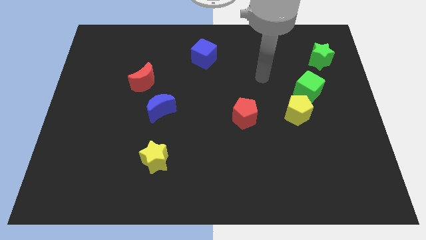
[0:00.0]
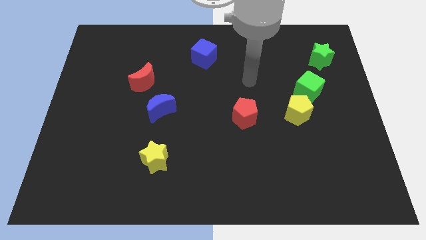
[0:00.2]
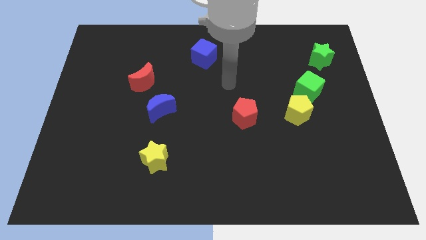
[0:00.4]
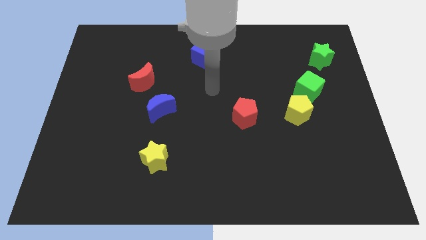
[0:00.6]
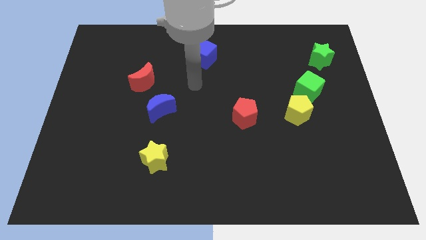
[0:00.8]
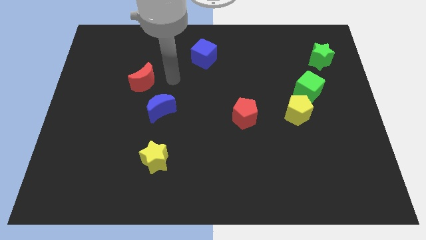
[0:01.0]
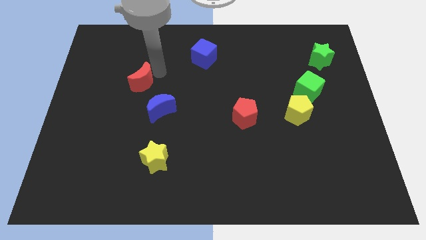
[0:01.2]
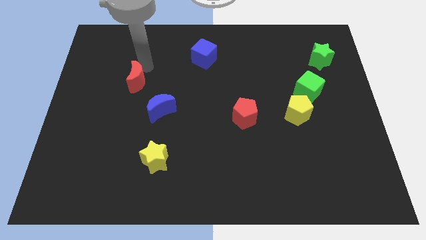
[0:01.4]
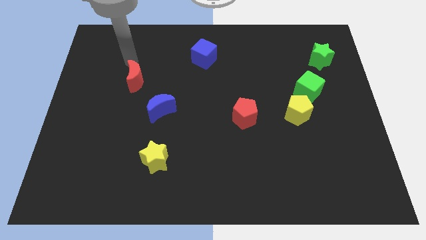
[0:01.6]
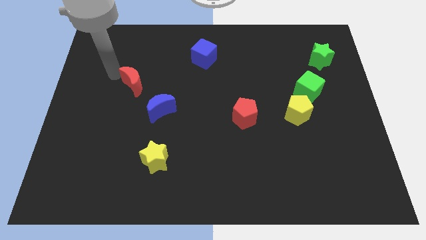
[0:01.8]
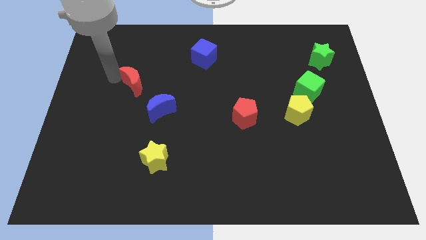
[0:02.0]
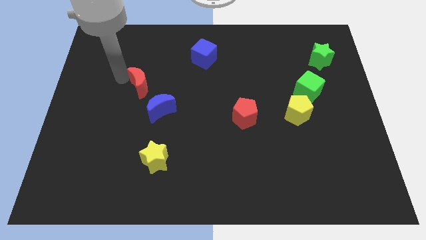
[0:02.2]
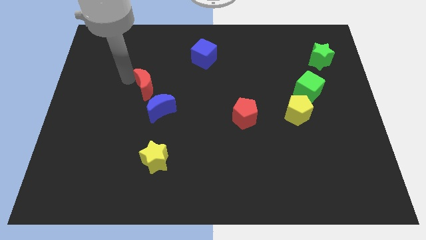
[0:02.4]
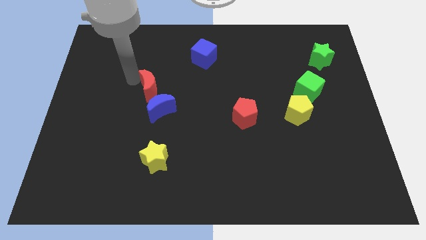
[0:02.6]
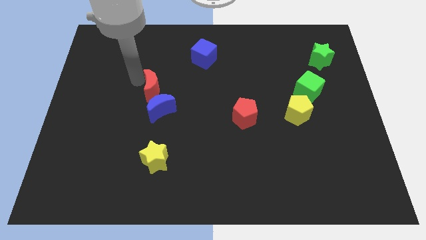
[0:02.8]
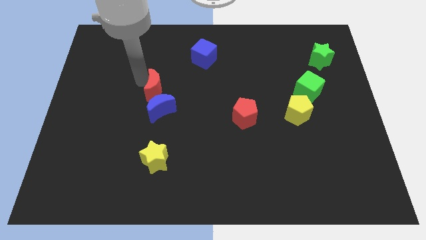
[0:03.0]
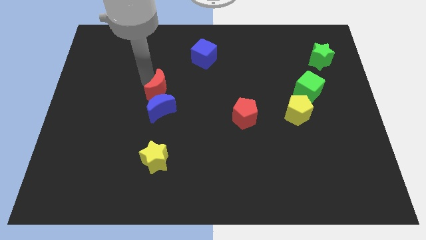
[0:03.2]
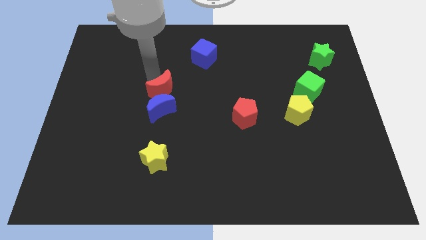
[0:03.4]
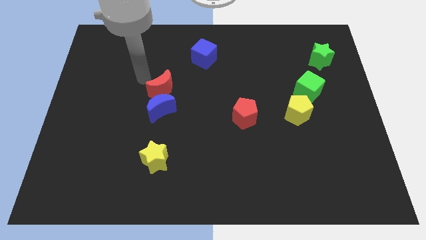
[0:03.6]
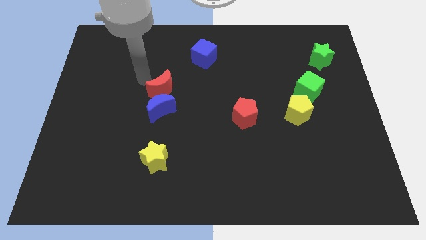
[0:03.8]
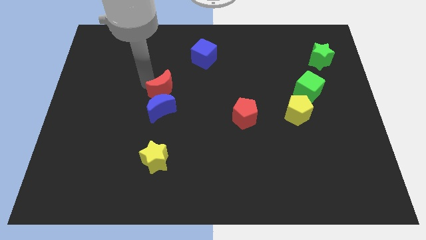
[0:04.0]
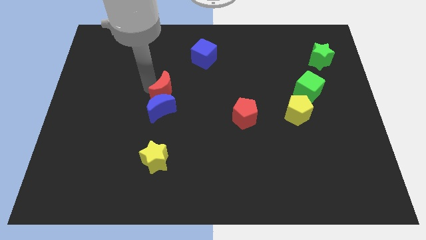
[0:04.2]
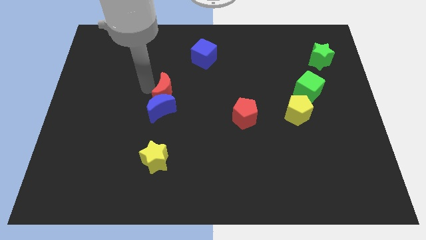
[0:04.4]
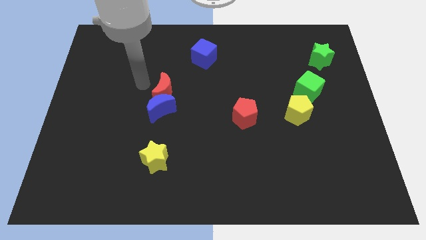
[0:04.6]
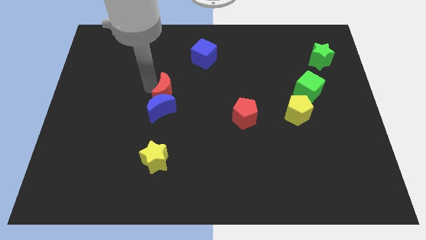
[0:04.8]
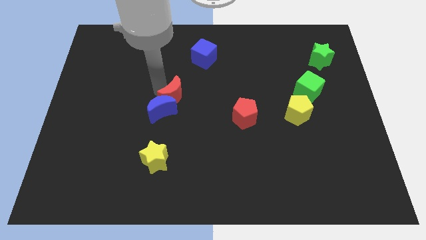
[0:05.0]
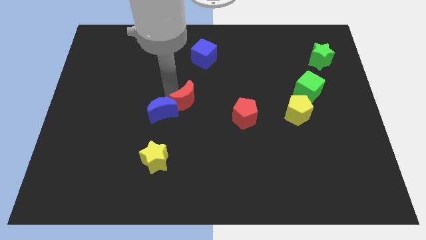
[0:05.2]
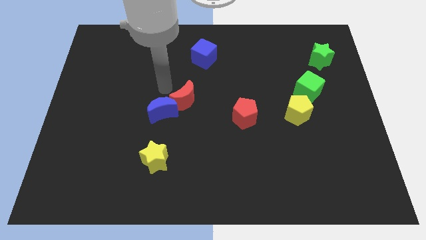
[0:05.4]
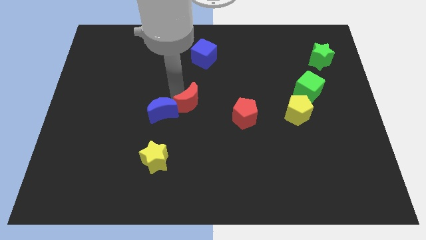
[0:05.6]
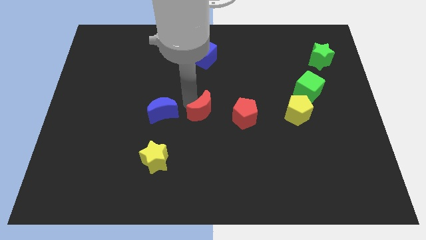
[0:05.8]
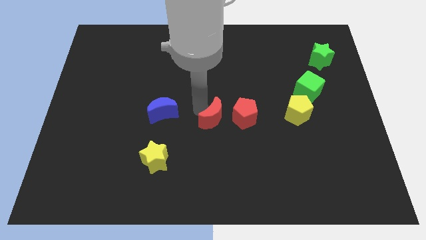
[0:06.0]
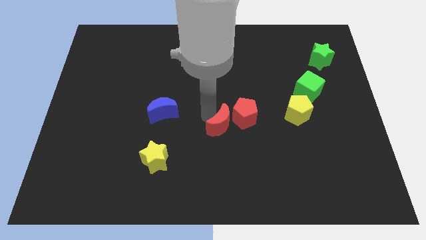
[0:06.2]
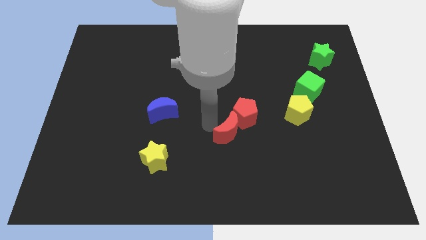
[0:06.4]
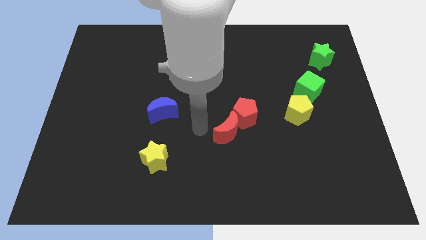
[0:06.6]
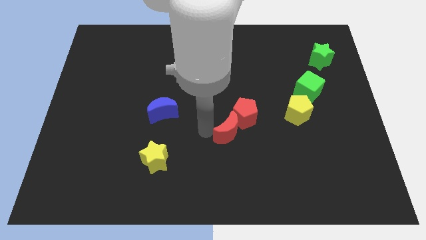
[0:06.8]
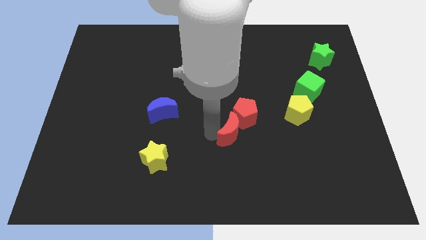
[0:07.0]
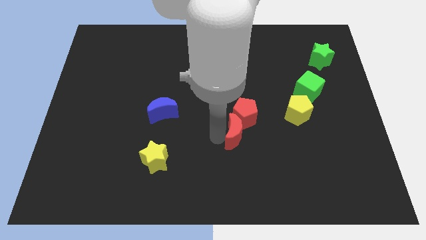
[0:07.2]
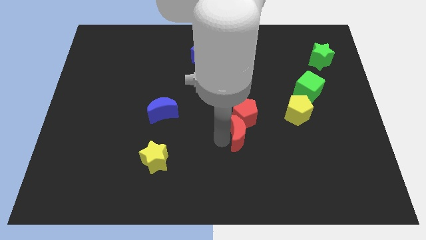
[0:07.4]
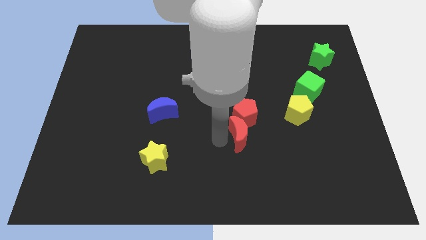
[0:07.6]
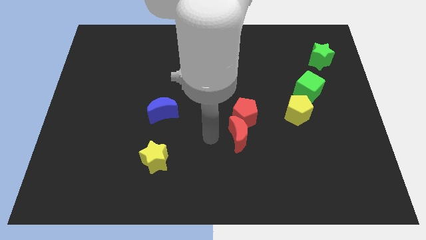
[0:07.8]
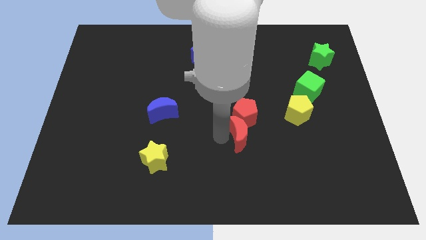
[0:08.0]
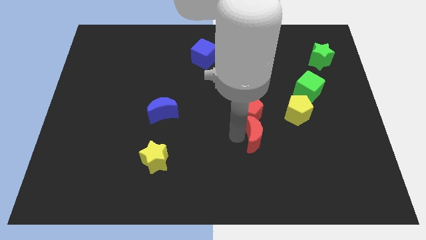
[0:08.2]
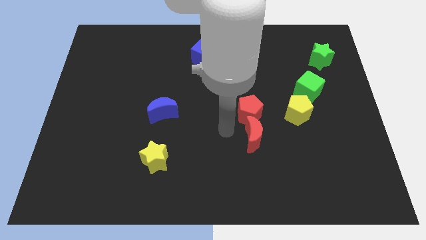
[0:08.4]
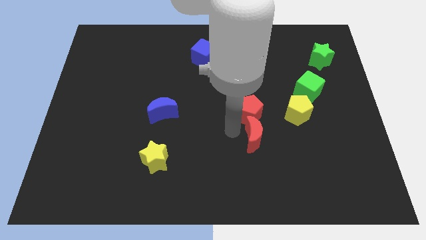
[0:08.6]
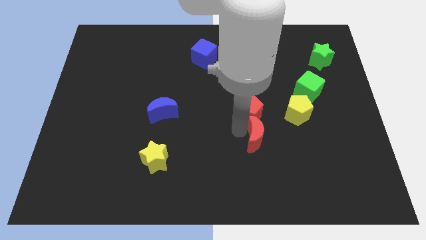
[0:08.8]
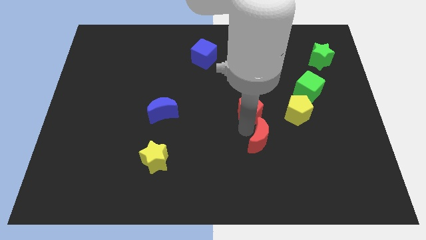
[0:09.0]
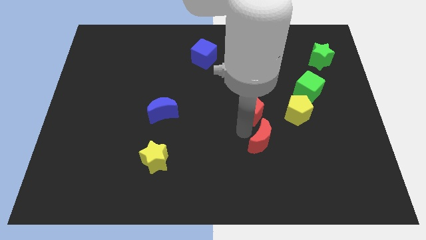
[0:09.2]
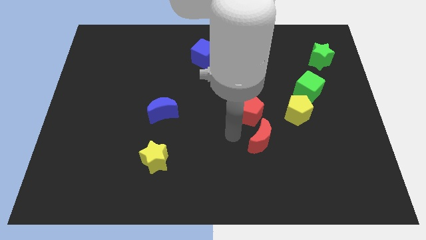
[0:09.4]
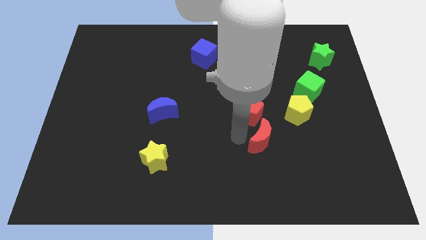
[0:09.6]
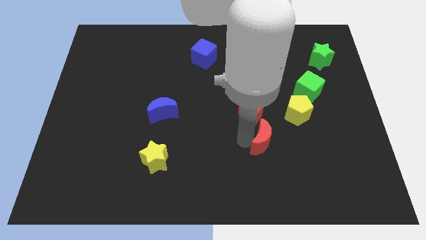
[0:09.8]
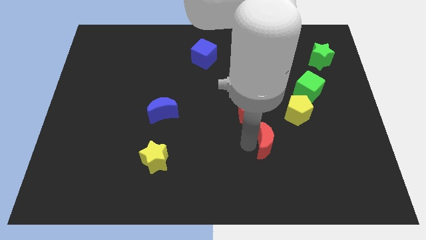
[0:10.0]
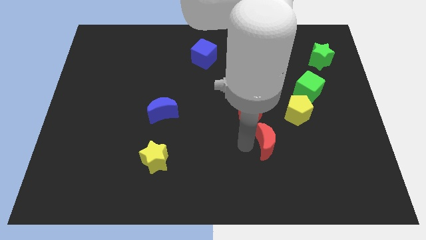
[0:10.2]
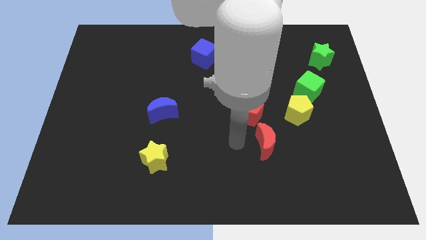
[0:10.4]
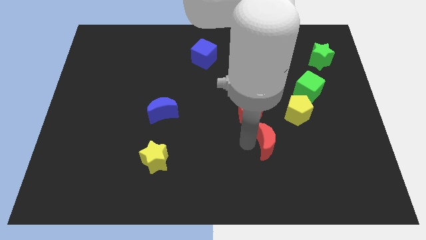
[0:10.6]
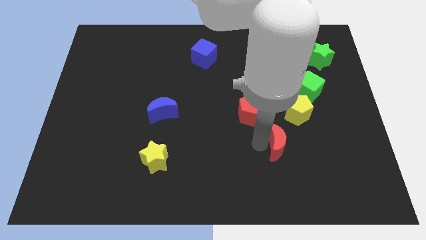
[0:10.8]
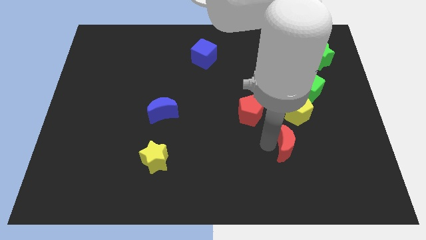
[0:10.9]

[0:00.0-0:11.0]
put the red moon to the bottom side of the yellow pentagon

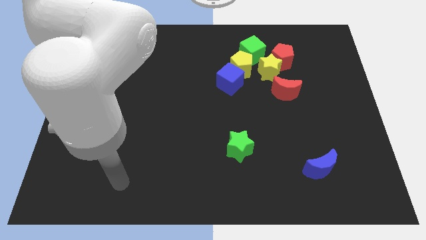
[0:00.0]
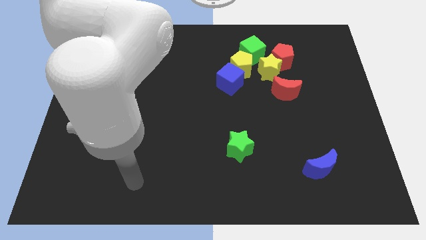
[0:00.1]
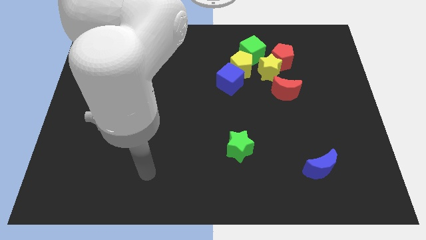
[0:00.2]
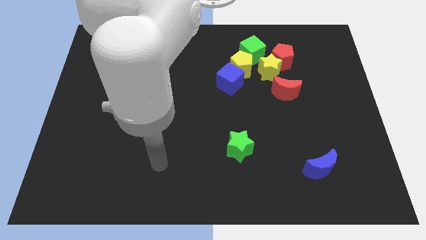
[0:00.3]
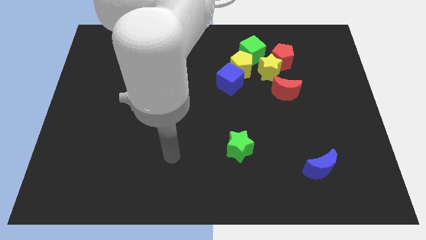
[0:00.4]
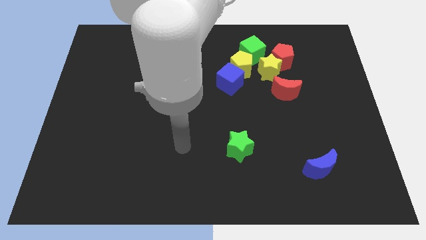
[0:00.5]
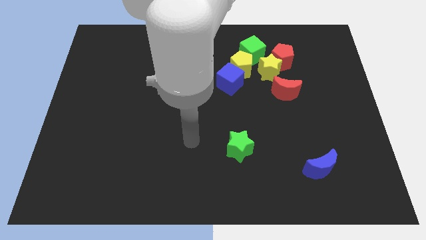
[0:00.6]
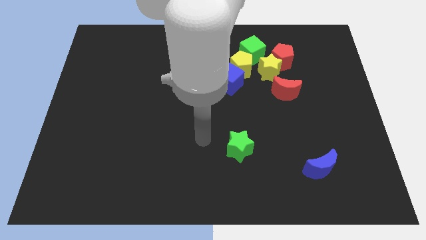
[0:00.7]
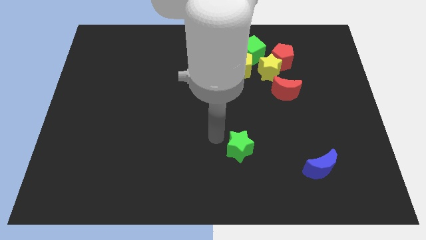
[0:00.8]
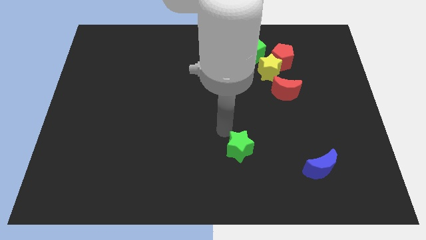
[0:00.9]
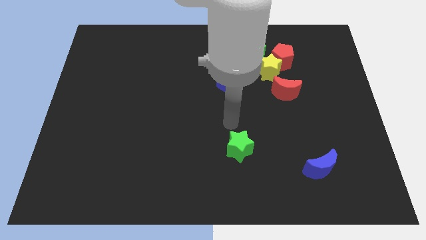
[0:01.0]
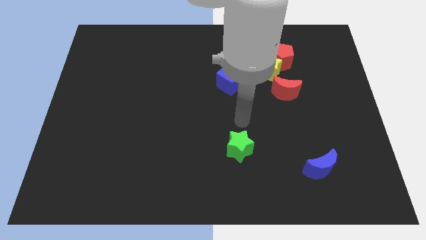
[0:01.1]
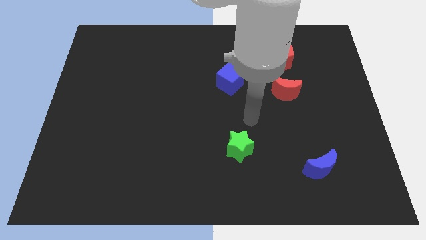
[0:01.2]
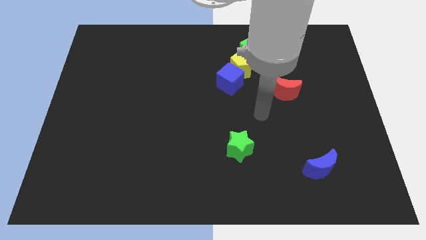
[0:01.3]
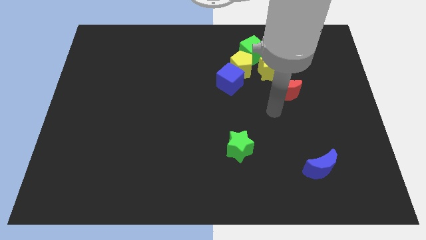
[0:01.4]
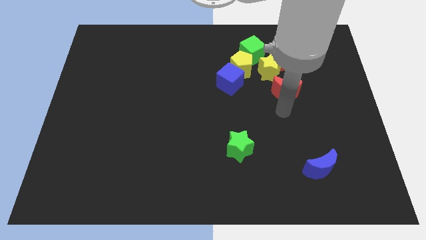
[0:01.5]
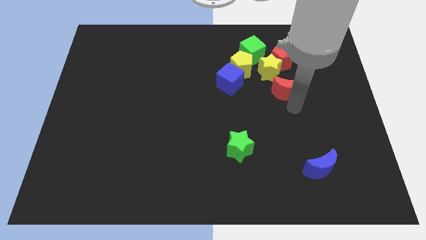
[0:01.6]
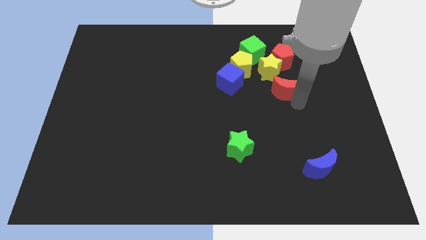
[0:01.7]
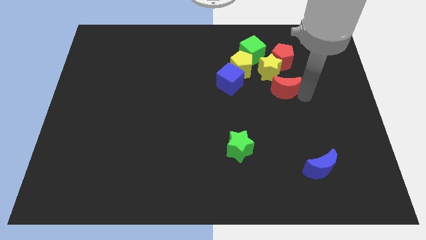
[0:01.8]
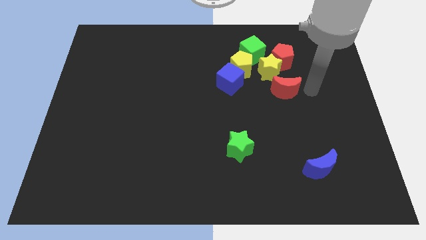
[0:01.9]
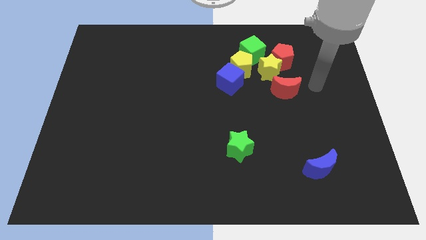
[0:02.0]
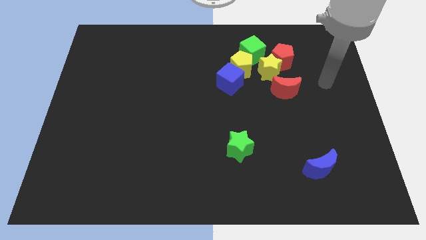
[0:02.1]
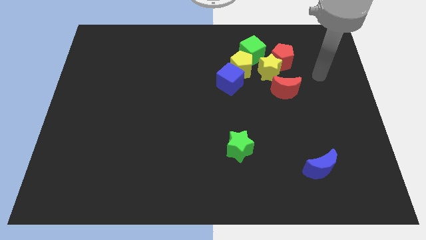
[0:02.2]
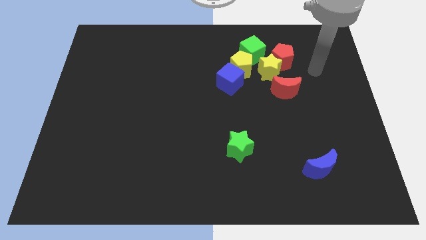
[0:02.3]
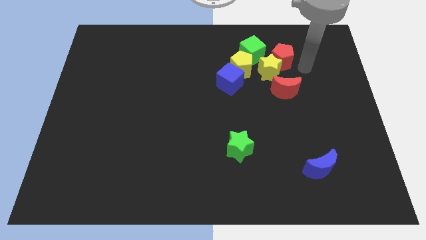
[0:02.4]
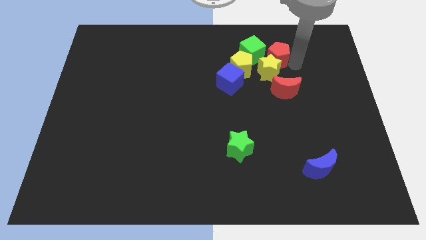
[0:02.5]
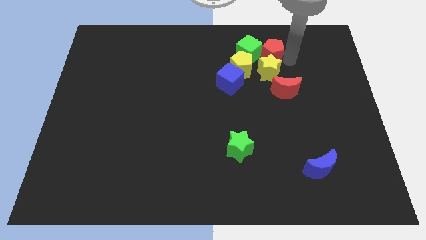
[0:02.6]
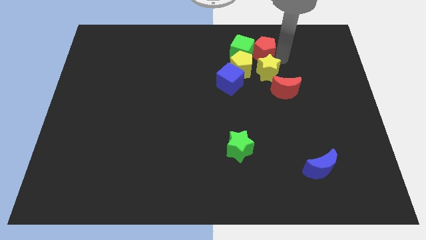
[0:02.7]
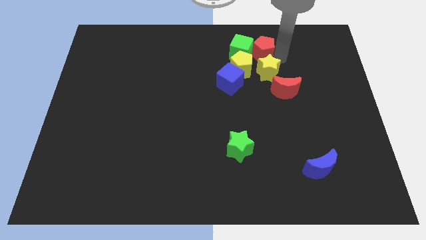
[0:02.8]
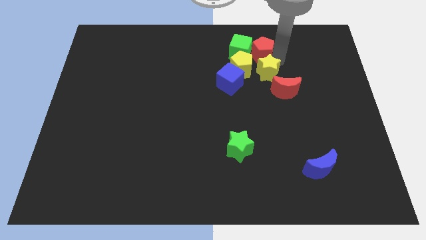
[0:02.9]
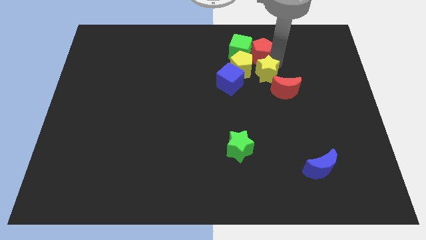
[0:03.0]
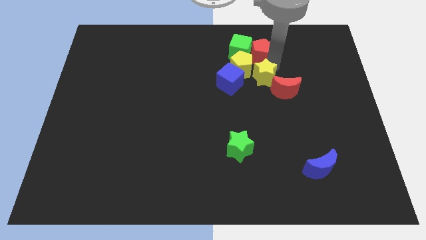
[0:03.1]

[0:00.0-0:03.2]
slide the yellow star to the left side of the red moon
